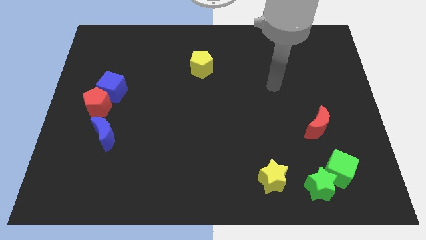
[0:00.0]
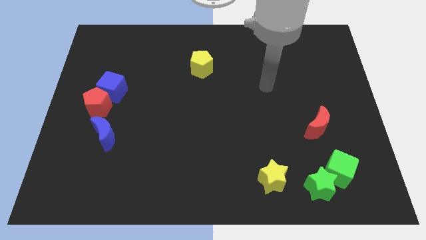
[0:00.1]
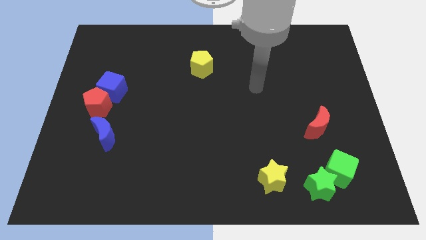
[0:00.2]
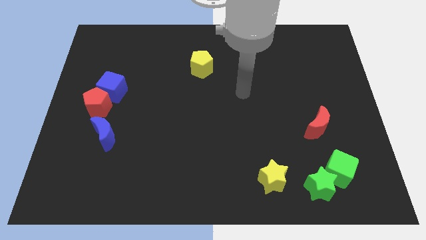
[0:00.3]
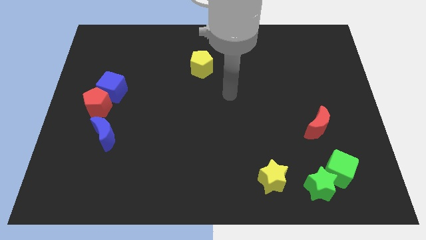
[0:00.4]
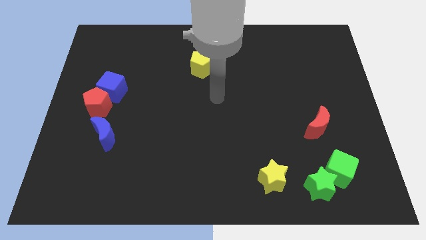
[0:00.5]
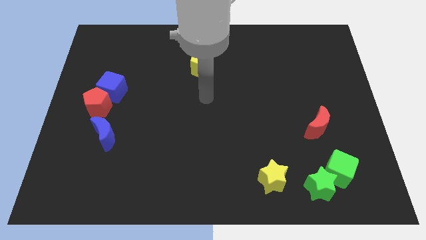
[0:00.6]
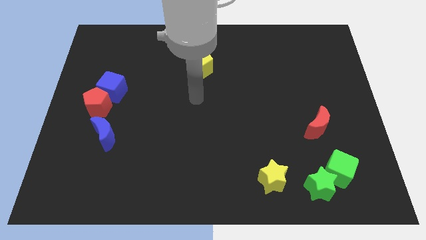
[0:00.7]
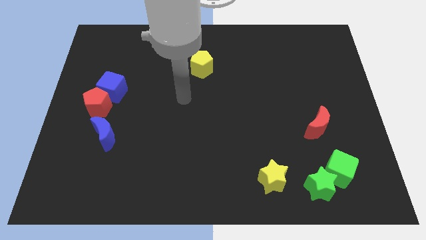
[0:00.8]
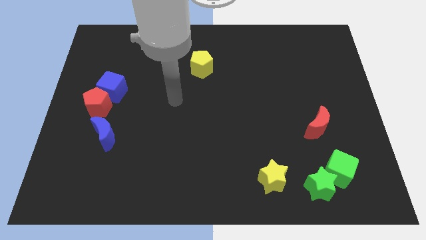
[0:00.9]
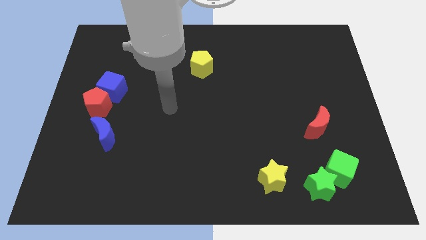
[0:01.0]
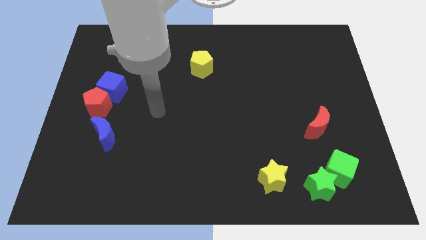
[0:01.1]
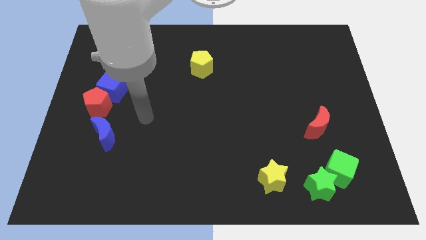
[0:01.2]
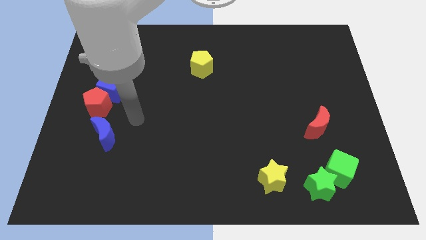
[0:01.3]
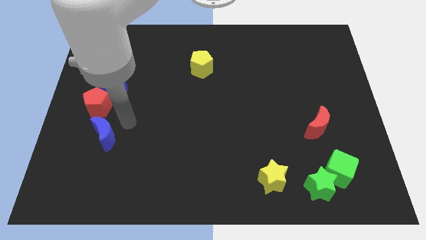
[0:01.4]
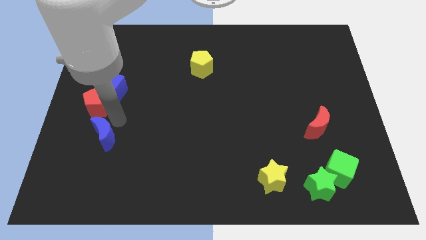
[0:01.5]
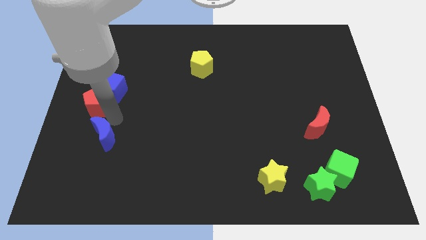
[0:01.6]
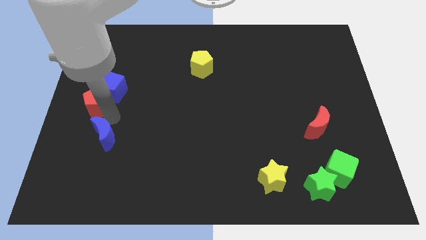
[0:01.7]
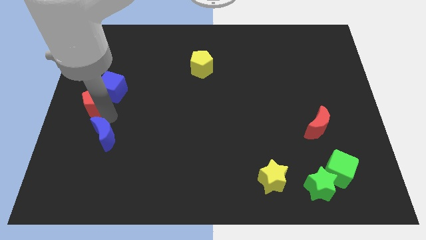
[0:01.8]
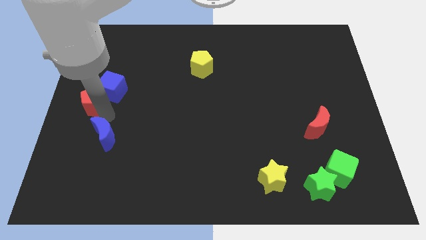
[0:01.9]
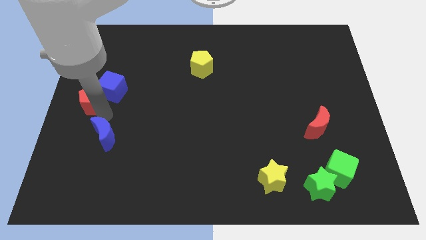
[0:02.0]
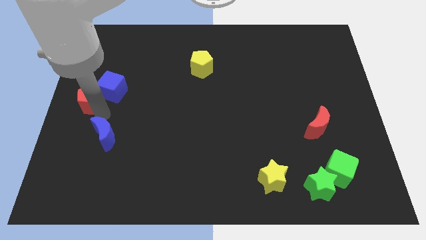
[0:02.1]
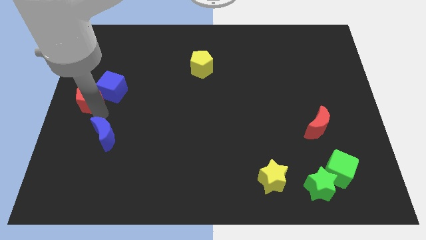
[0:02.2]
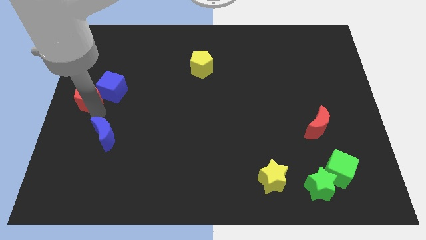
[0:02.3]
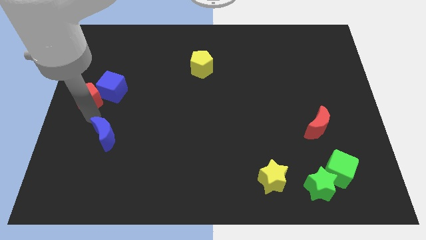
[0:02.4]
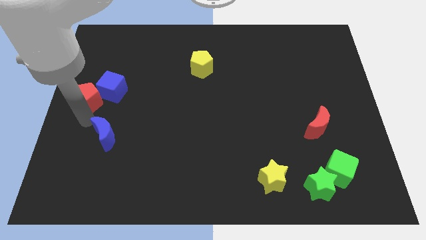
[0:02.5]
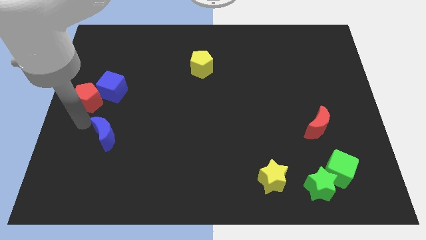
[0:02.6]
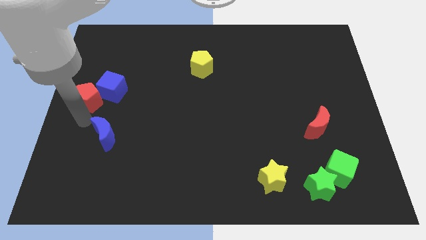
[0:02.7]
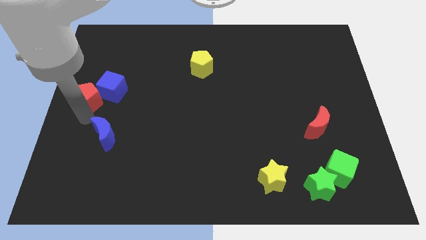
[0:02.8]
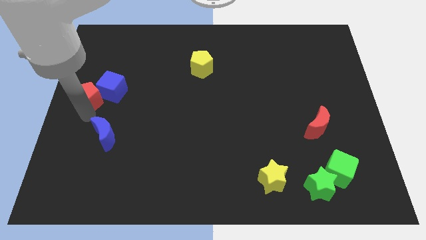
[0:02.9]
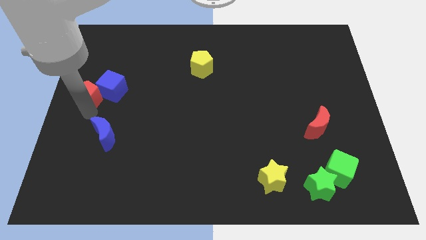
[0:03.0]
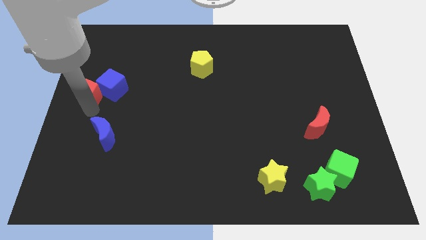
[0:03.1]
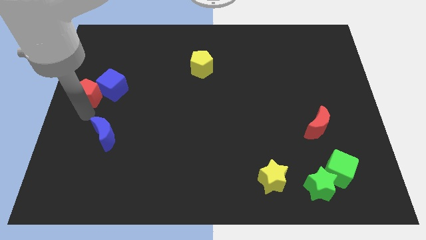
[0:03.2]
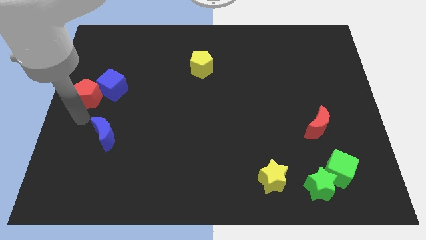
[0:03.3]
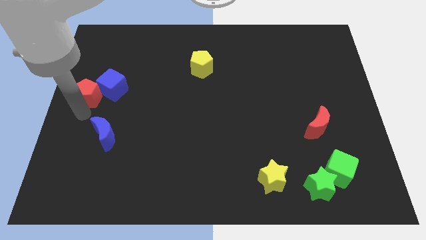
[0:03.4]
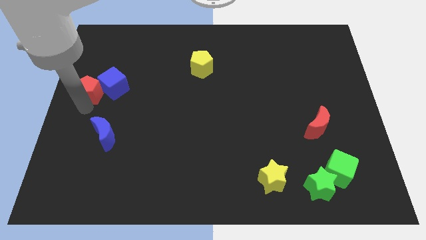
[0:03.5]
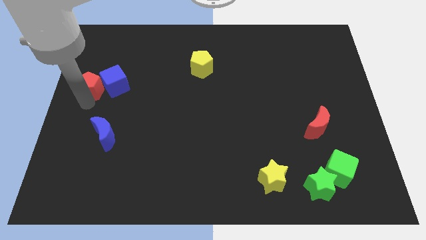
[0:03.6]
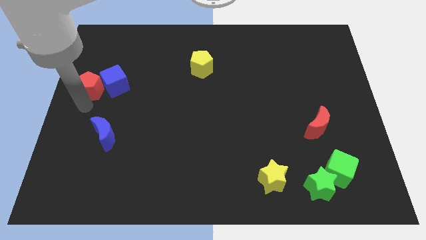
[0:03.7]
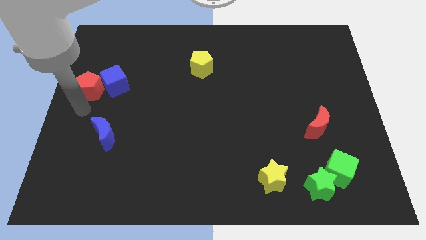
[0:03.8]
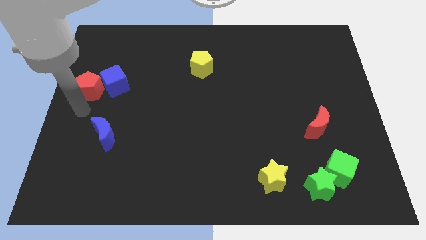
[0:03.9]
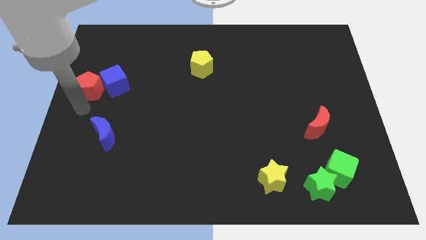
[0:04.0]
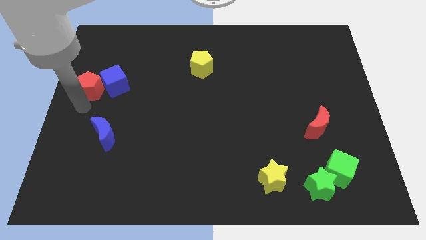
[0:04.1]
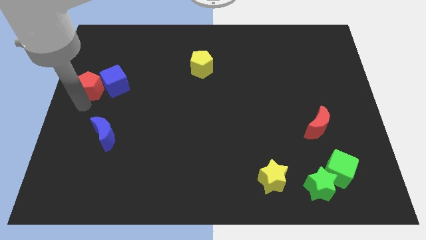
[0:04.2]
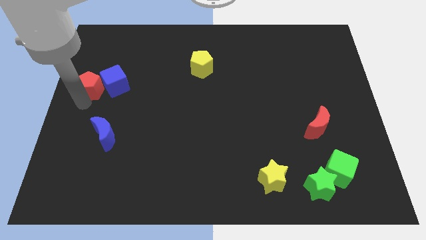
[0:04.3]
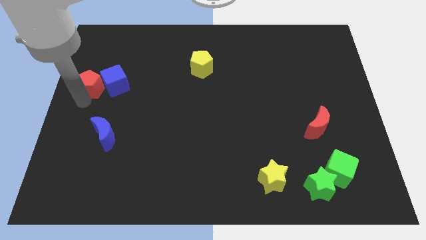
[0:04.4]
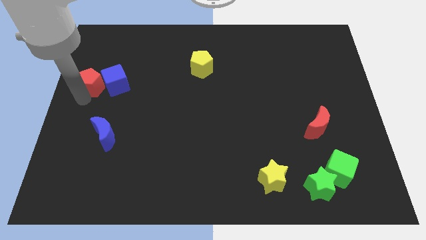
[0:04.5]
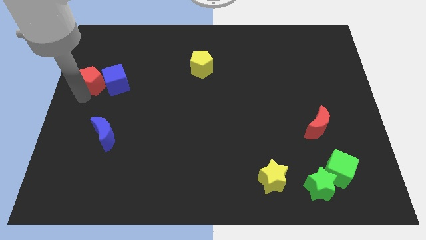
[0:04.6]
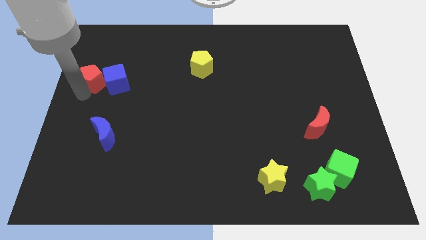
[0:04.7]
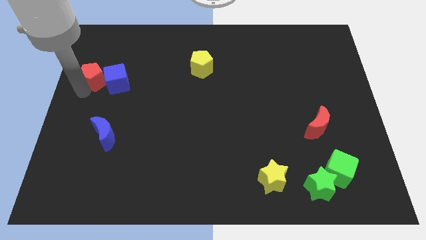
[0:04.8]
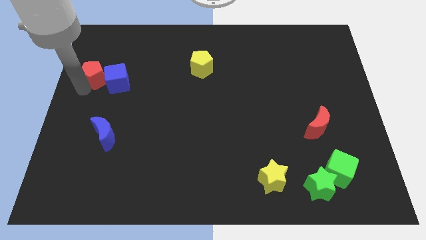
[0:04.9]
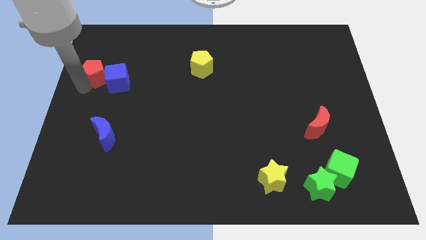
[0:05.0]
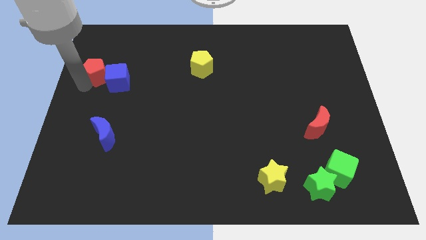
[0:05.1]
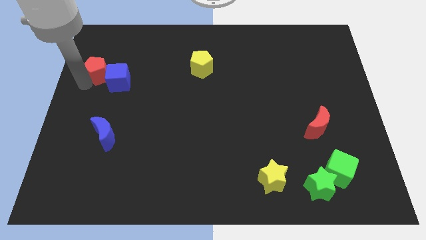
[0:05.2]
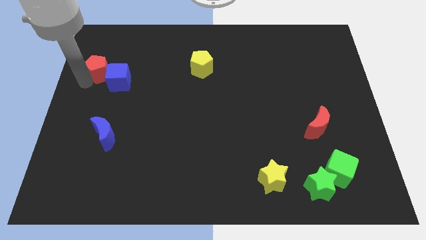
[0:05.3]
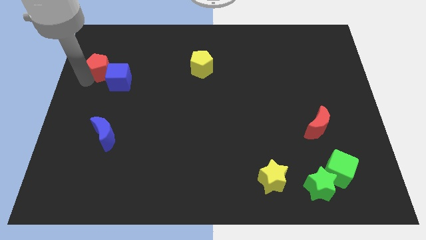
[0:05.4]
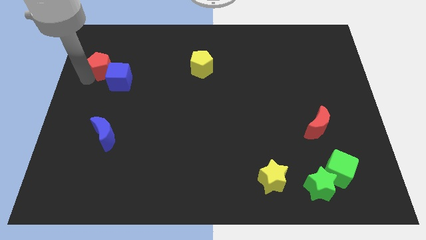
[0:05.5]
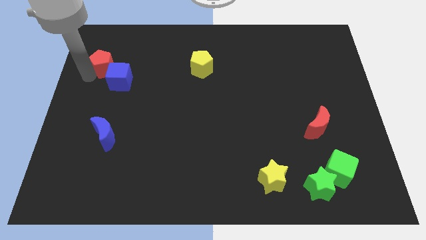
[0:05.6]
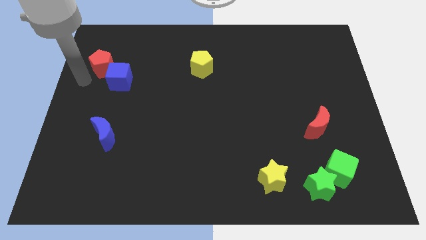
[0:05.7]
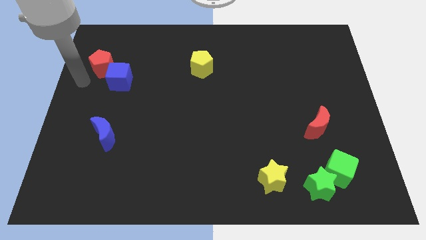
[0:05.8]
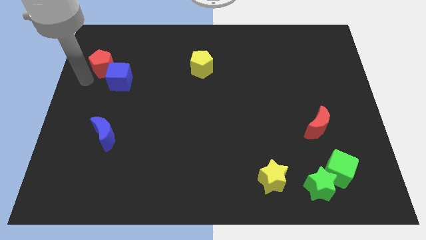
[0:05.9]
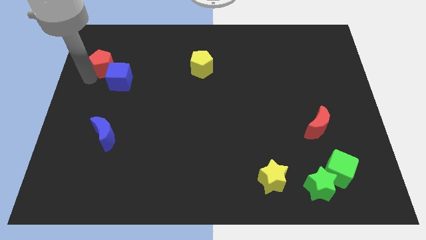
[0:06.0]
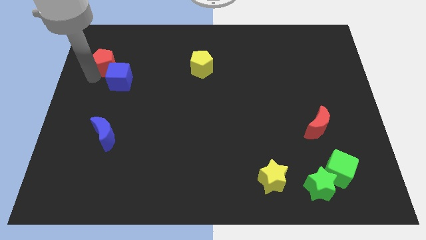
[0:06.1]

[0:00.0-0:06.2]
put the red pentagon above the blue cube

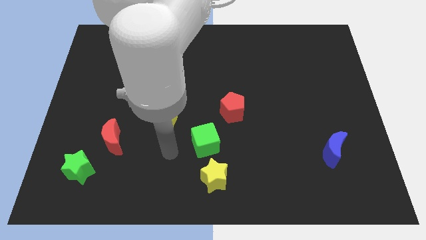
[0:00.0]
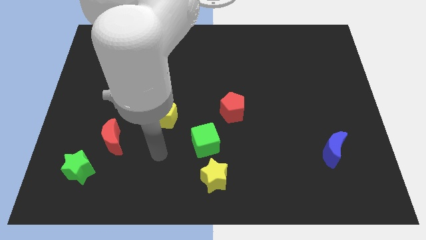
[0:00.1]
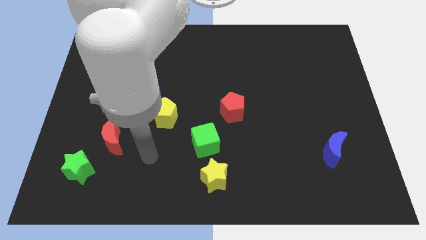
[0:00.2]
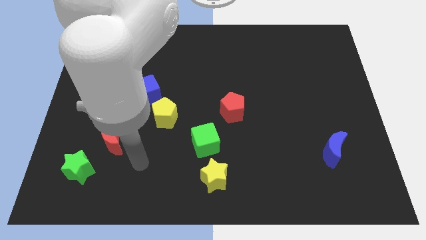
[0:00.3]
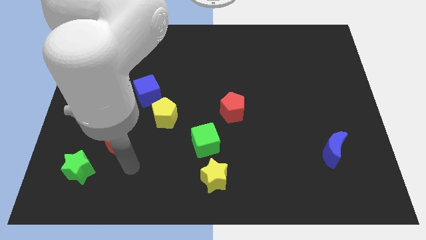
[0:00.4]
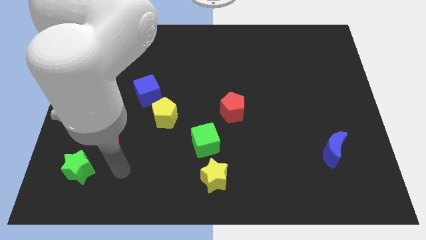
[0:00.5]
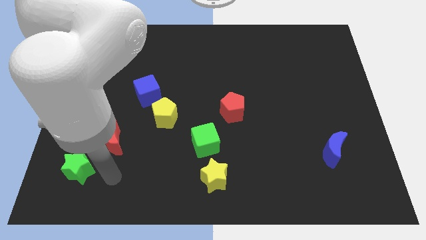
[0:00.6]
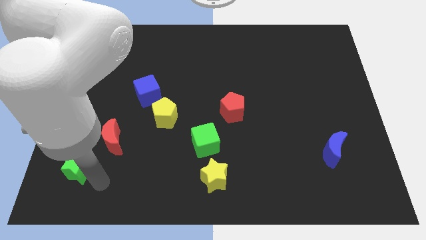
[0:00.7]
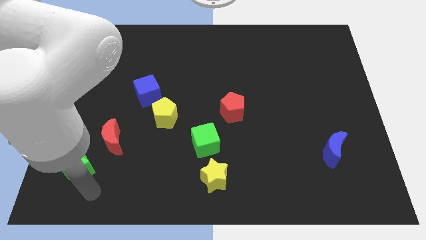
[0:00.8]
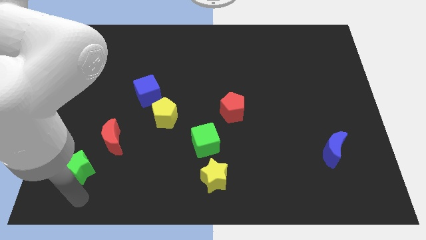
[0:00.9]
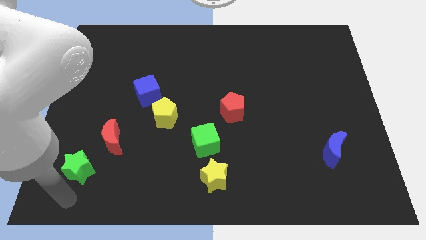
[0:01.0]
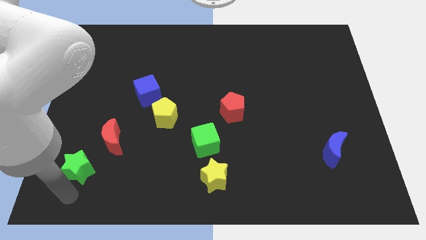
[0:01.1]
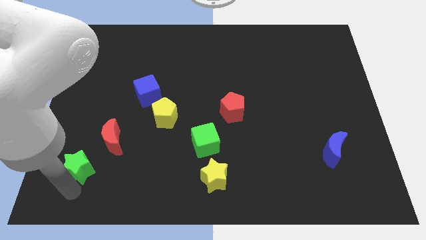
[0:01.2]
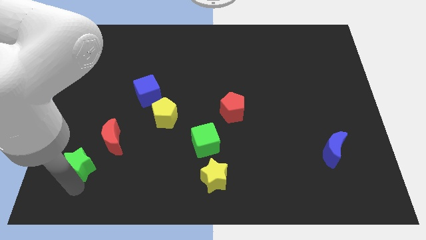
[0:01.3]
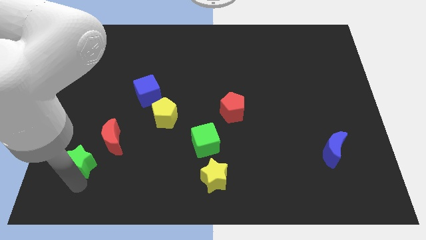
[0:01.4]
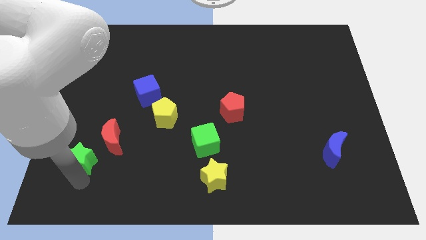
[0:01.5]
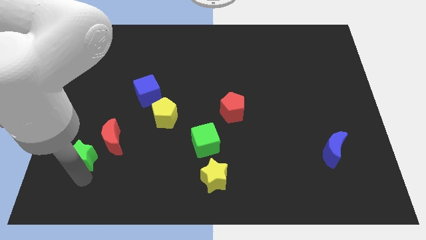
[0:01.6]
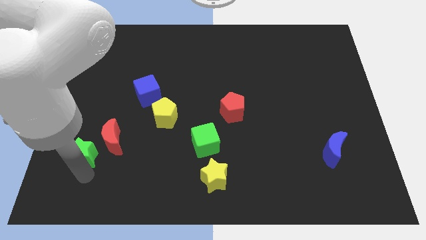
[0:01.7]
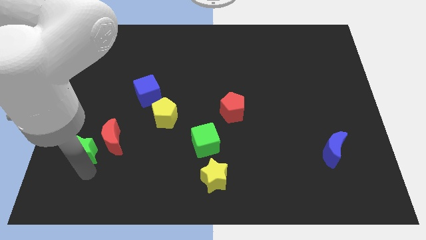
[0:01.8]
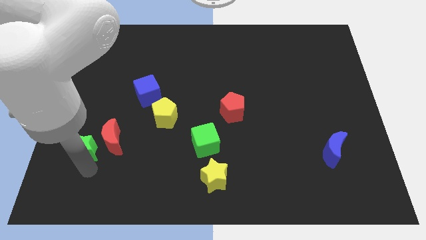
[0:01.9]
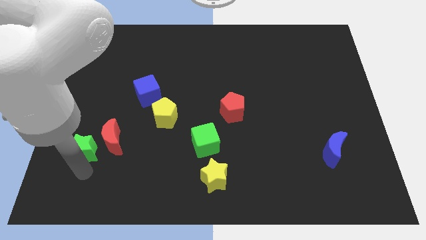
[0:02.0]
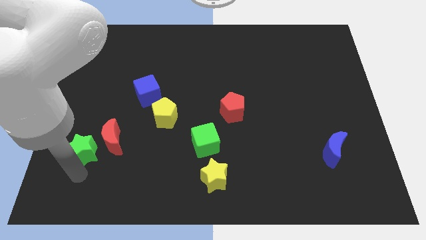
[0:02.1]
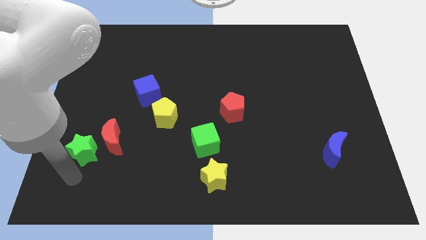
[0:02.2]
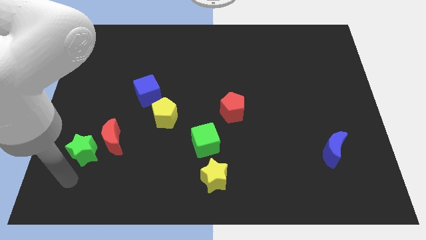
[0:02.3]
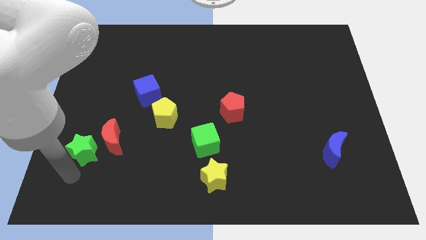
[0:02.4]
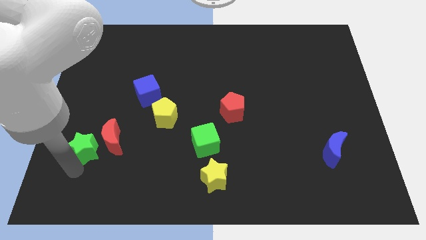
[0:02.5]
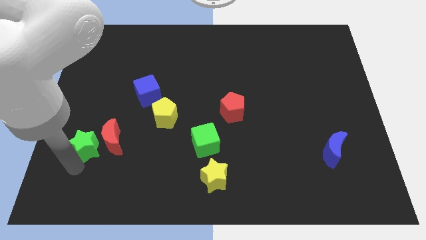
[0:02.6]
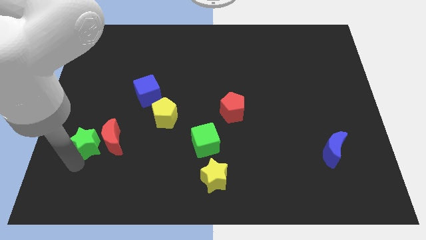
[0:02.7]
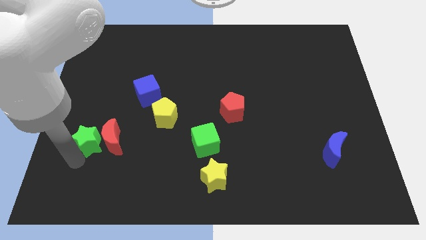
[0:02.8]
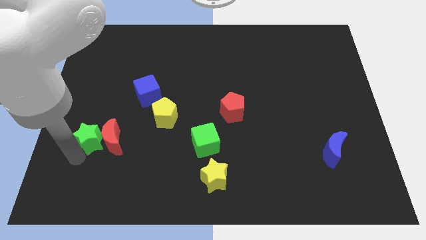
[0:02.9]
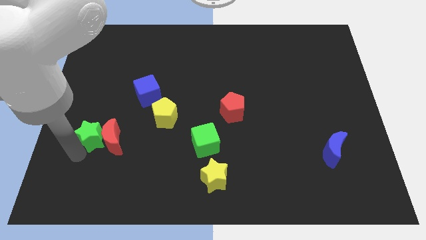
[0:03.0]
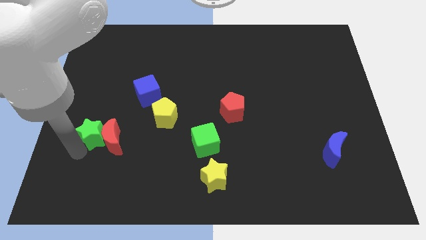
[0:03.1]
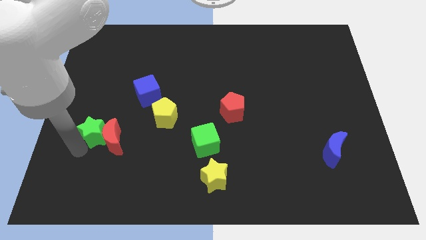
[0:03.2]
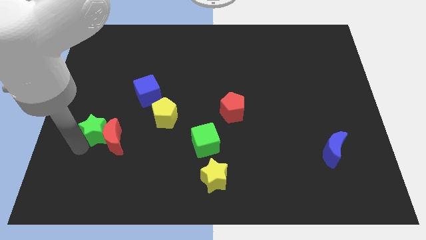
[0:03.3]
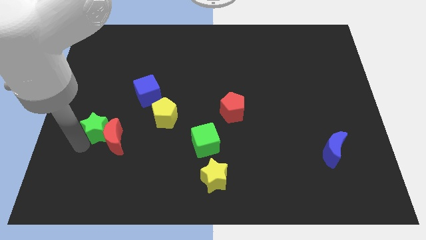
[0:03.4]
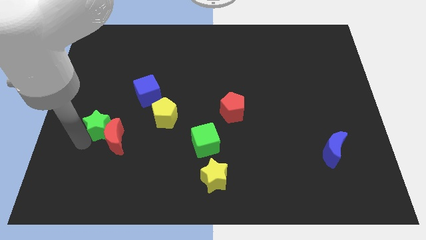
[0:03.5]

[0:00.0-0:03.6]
move the green star just left of the yellow pentagon
